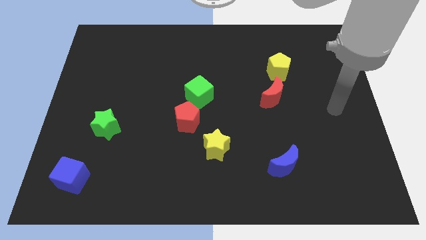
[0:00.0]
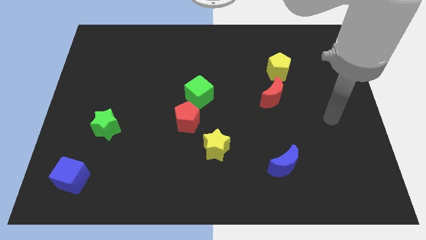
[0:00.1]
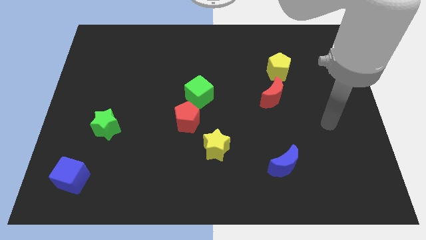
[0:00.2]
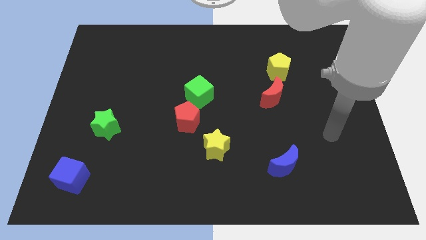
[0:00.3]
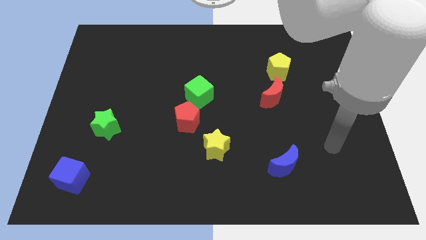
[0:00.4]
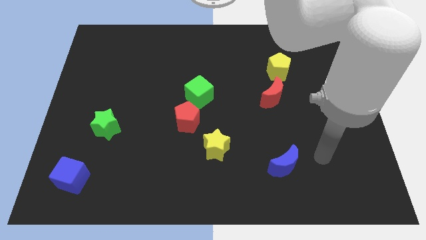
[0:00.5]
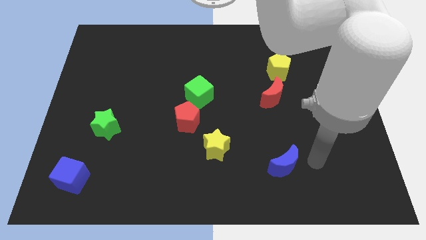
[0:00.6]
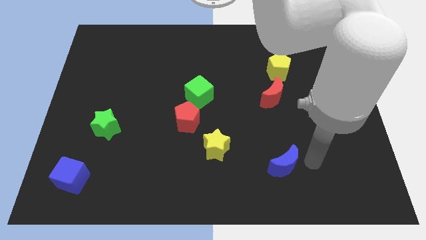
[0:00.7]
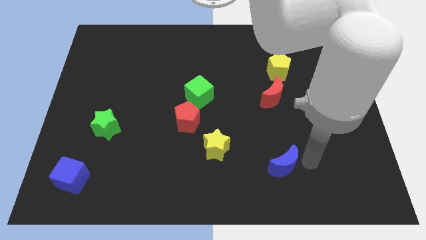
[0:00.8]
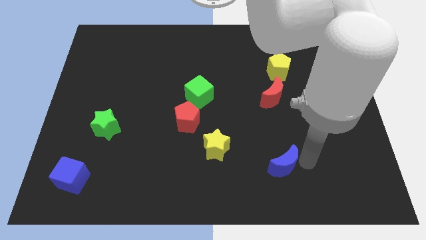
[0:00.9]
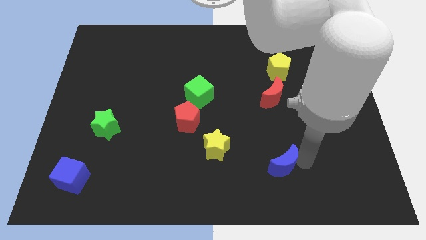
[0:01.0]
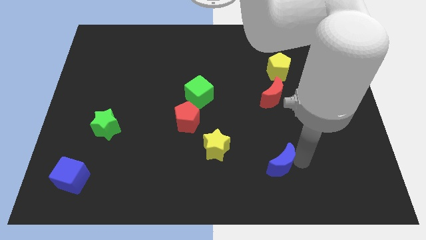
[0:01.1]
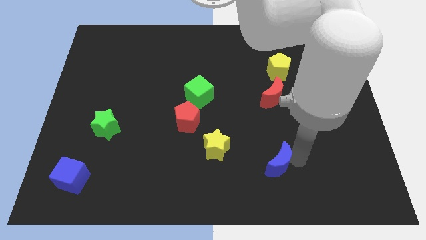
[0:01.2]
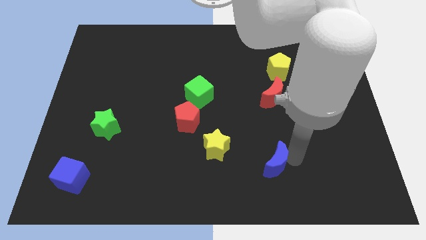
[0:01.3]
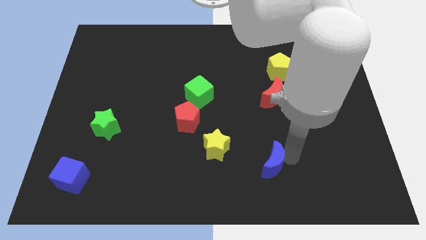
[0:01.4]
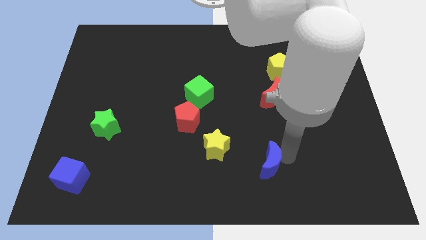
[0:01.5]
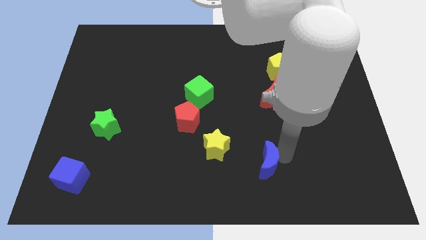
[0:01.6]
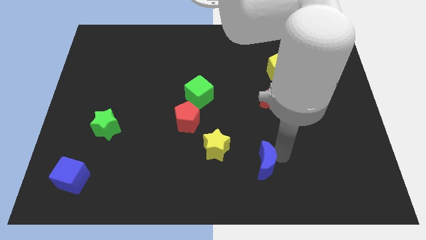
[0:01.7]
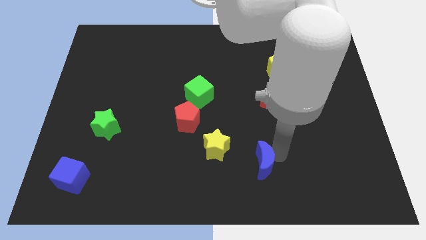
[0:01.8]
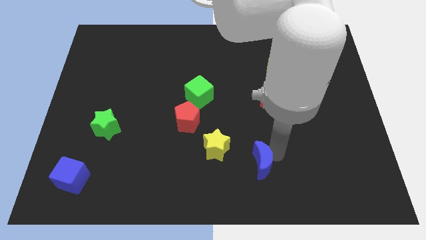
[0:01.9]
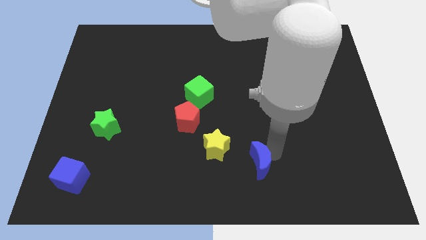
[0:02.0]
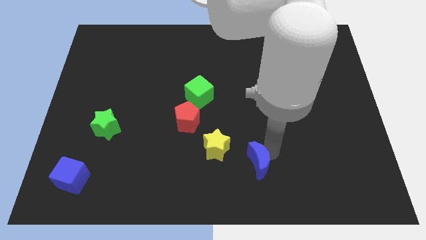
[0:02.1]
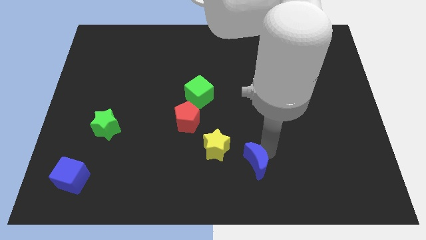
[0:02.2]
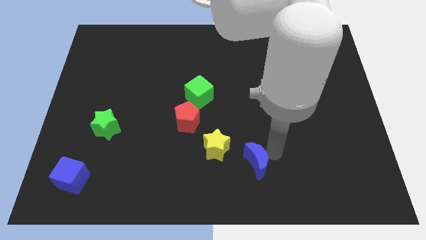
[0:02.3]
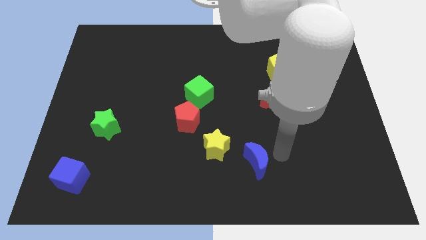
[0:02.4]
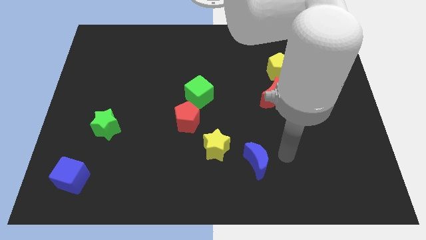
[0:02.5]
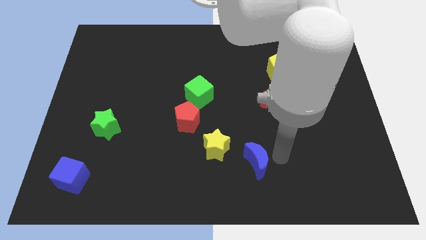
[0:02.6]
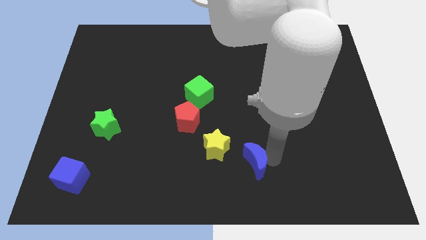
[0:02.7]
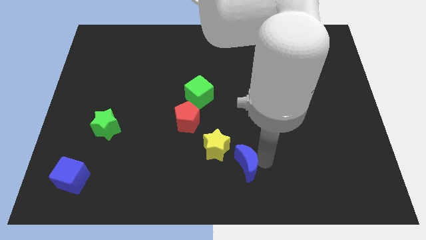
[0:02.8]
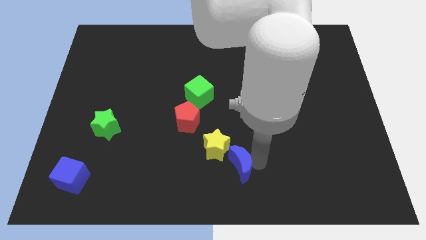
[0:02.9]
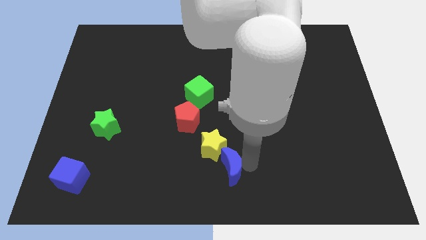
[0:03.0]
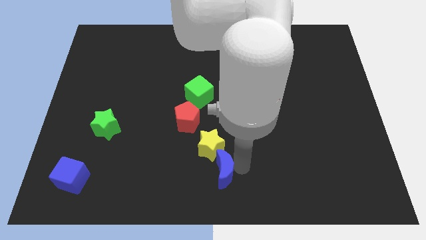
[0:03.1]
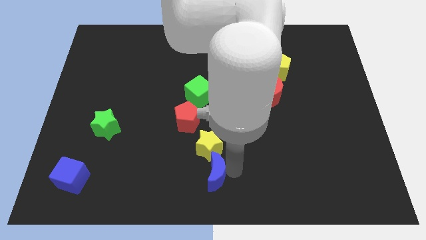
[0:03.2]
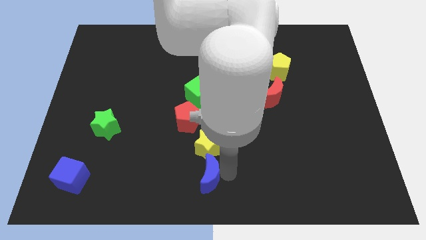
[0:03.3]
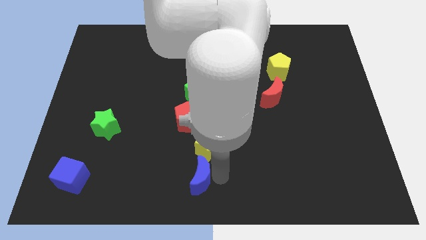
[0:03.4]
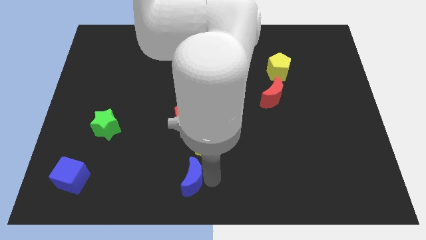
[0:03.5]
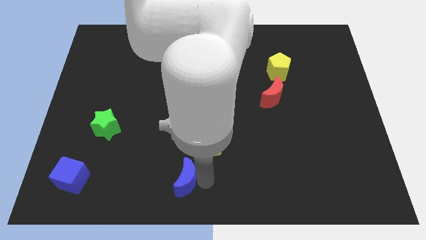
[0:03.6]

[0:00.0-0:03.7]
move the blue moon left

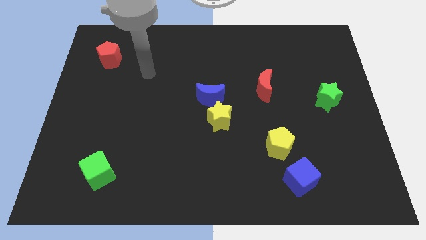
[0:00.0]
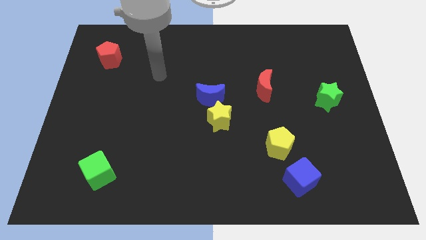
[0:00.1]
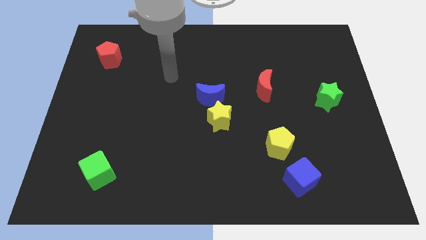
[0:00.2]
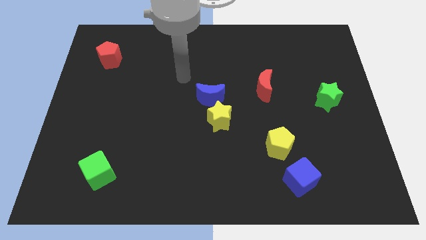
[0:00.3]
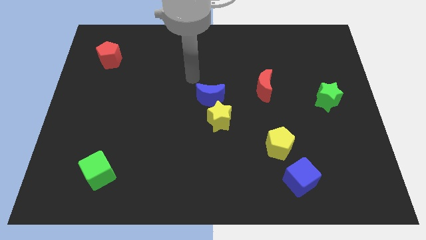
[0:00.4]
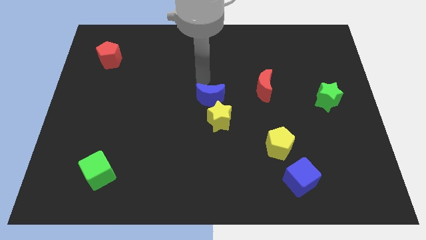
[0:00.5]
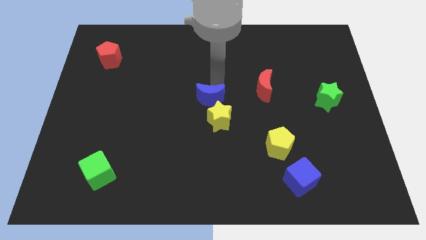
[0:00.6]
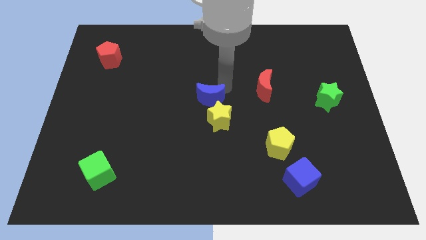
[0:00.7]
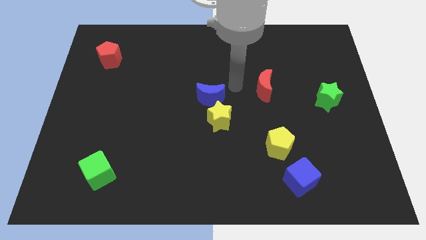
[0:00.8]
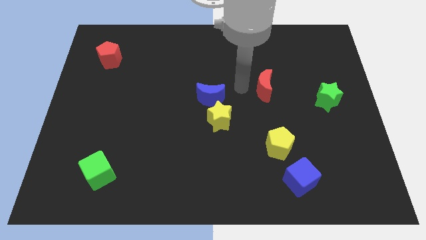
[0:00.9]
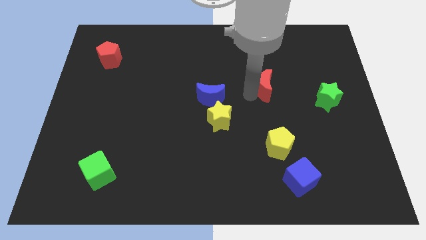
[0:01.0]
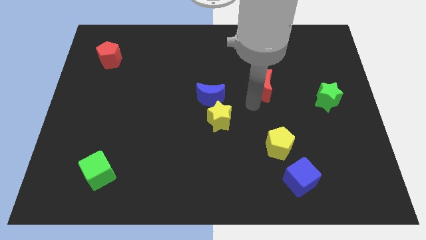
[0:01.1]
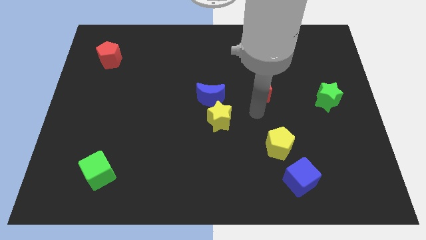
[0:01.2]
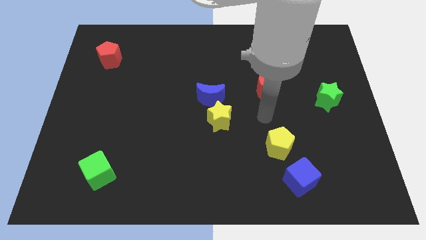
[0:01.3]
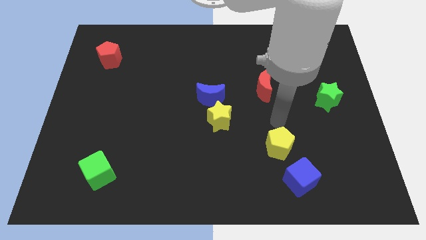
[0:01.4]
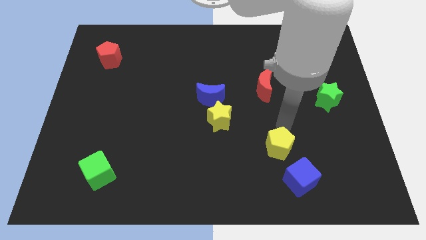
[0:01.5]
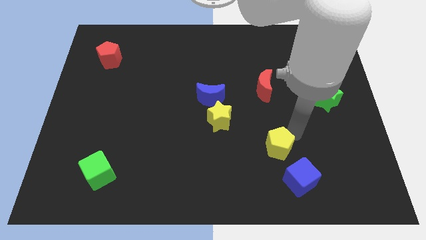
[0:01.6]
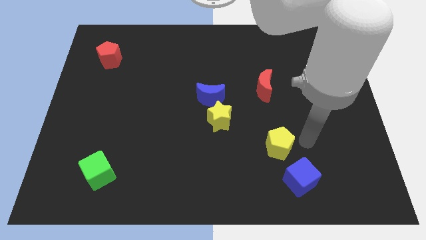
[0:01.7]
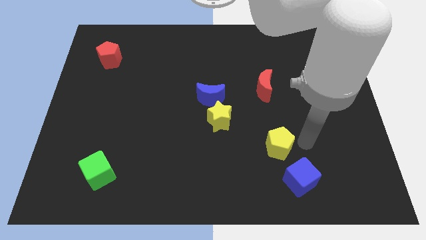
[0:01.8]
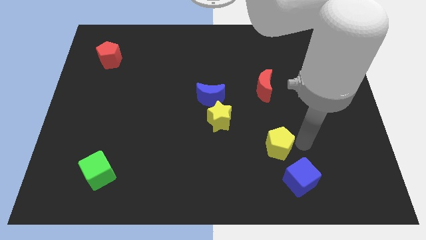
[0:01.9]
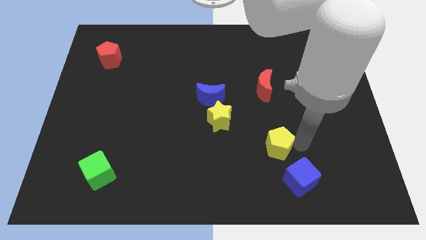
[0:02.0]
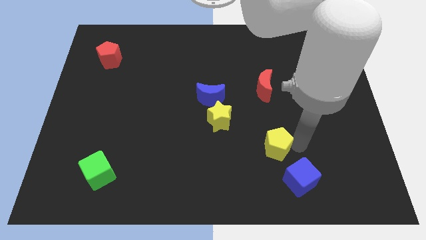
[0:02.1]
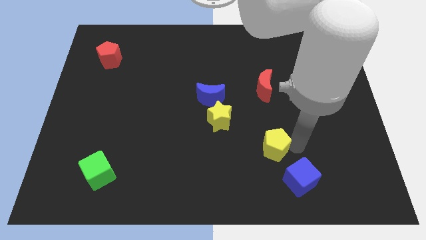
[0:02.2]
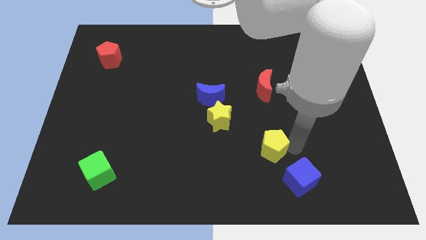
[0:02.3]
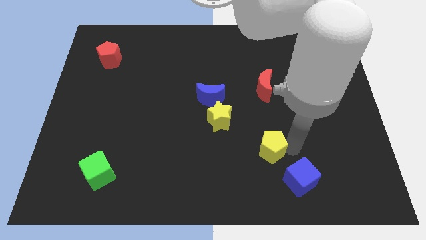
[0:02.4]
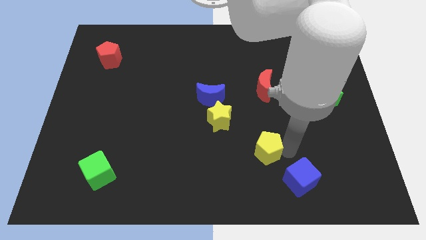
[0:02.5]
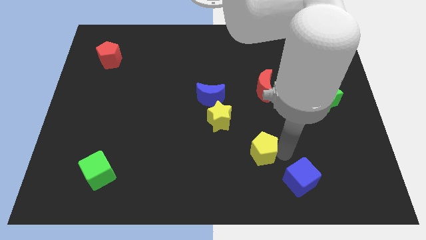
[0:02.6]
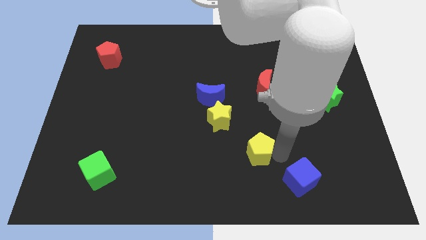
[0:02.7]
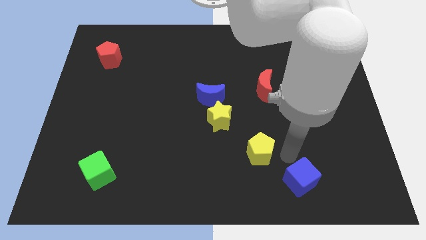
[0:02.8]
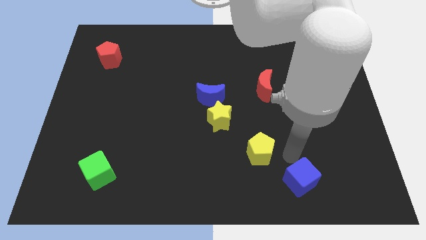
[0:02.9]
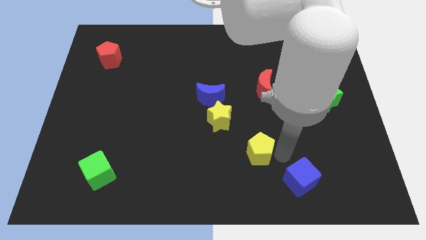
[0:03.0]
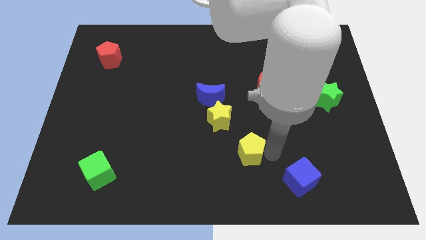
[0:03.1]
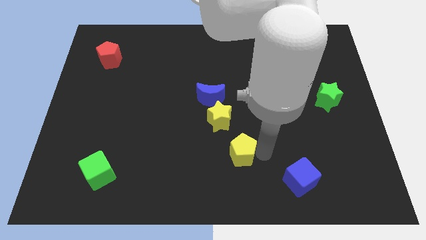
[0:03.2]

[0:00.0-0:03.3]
move the yellow pentagon left somewhat

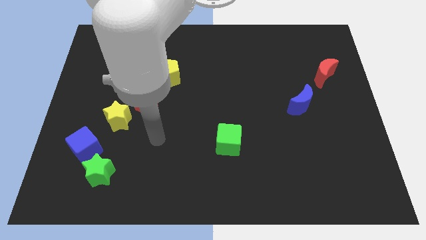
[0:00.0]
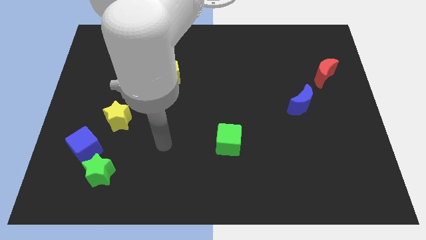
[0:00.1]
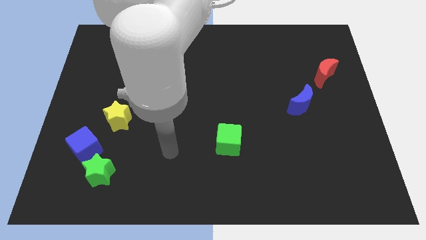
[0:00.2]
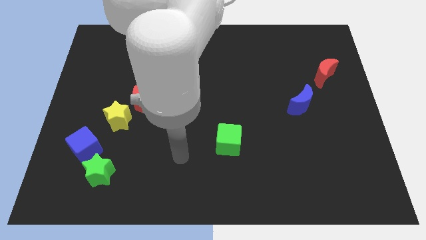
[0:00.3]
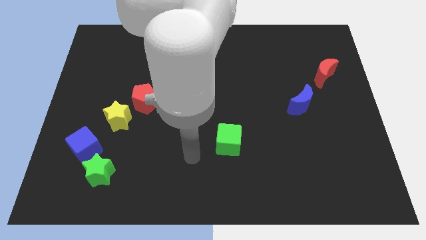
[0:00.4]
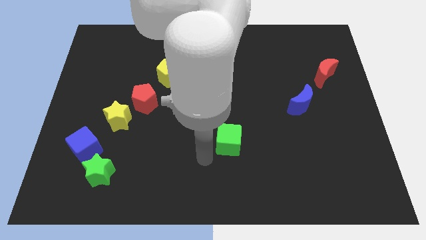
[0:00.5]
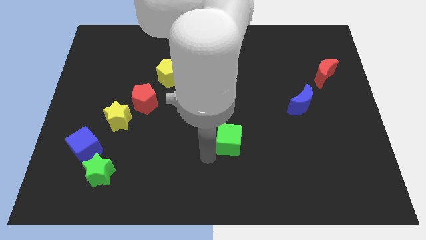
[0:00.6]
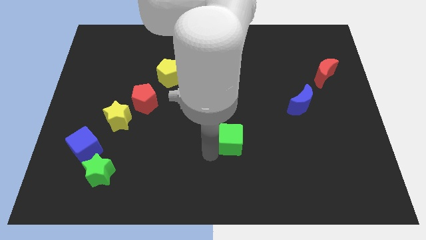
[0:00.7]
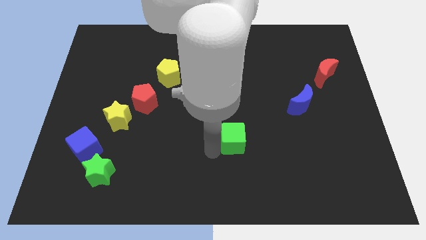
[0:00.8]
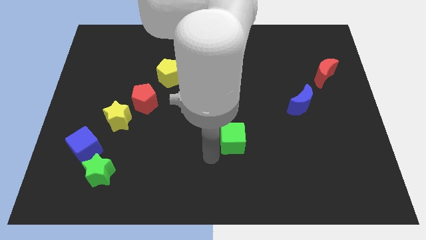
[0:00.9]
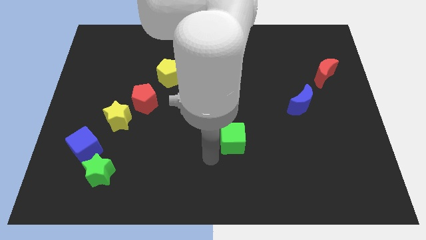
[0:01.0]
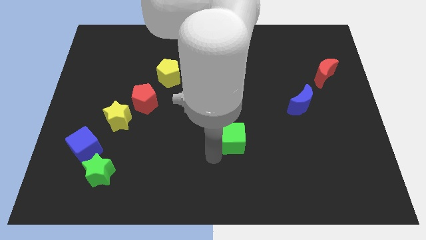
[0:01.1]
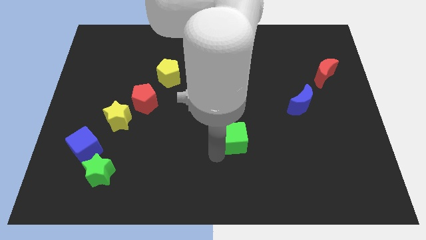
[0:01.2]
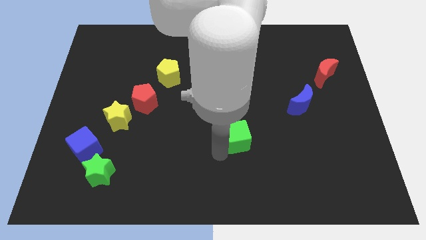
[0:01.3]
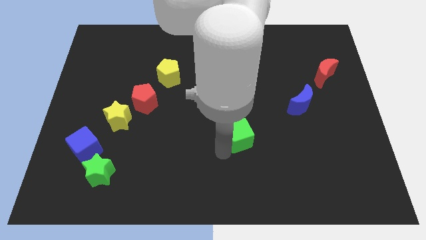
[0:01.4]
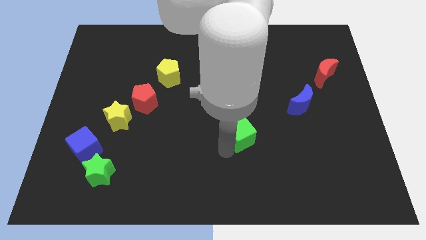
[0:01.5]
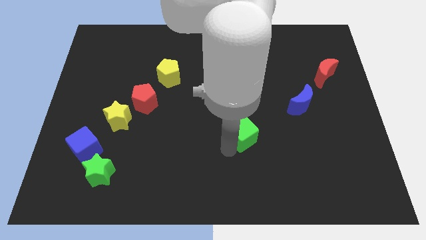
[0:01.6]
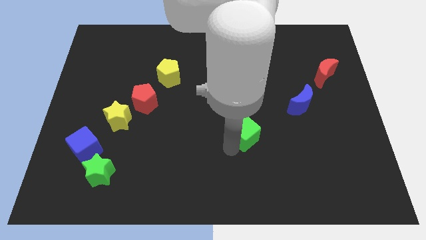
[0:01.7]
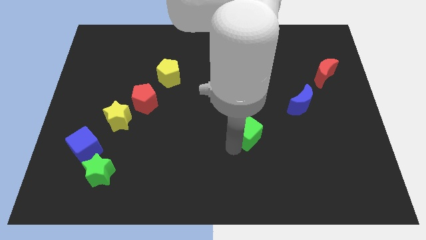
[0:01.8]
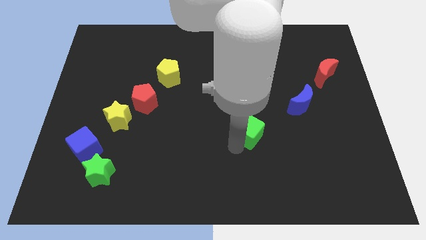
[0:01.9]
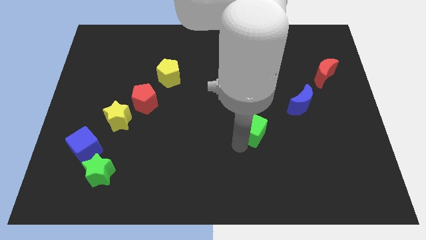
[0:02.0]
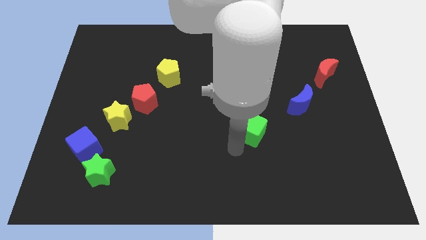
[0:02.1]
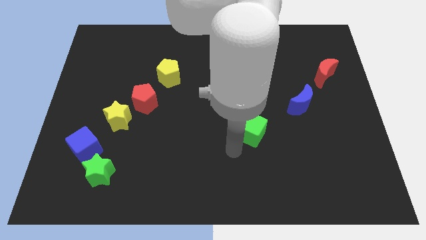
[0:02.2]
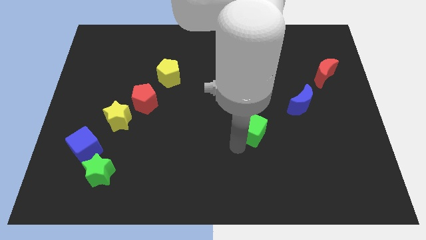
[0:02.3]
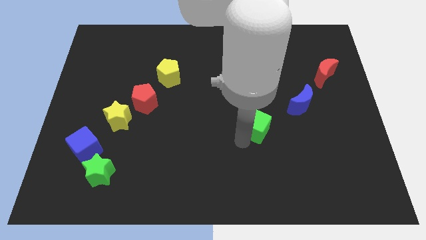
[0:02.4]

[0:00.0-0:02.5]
slide the green cube up and to the right somewhat
